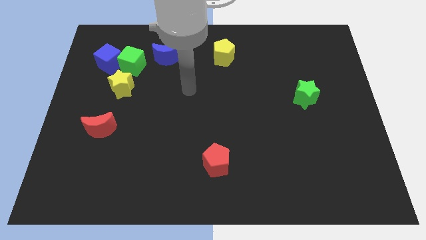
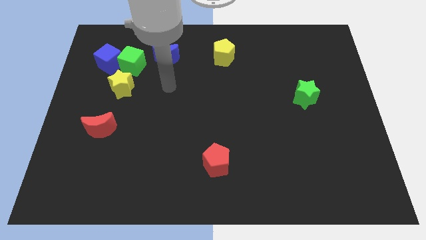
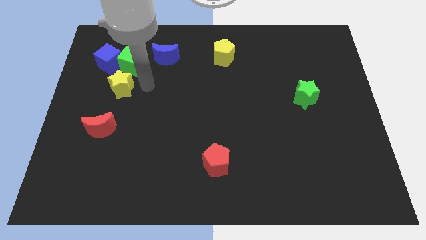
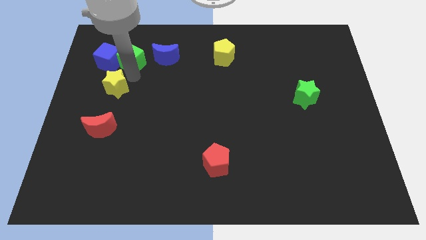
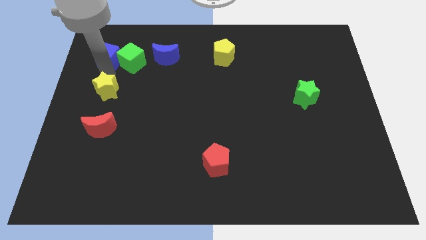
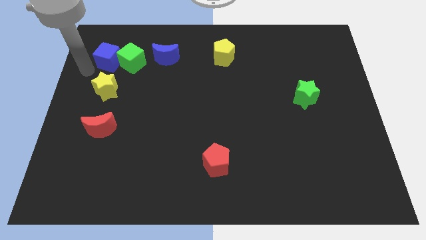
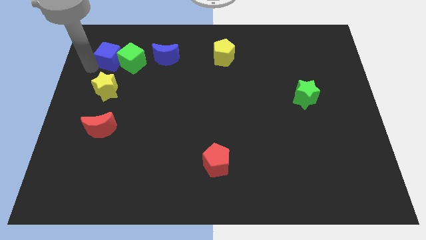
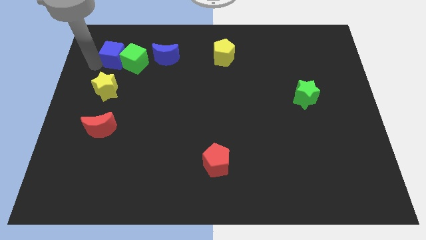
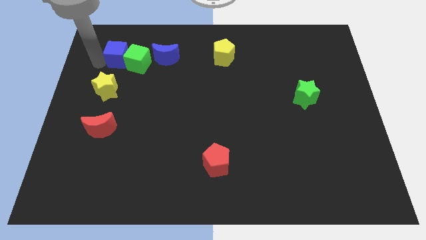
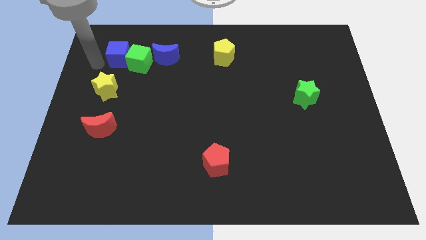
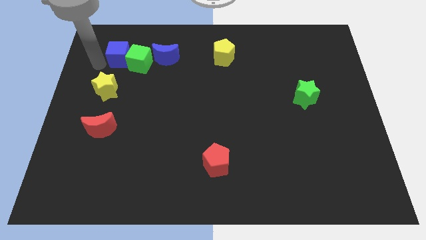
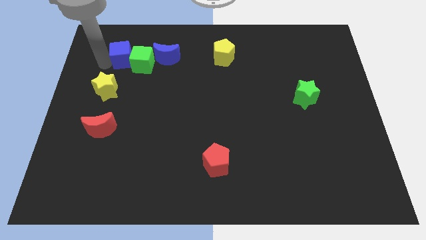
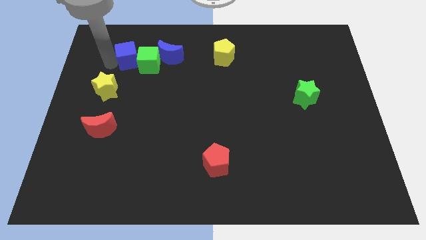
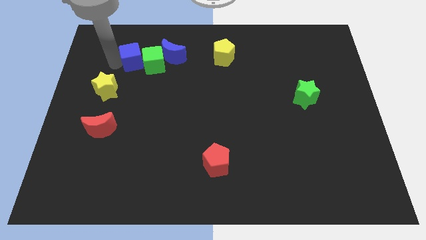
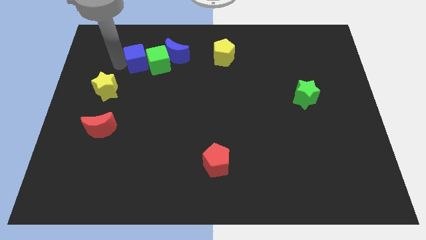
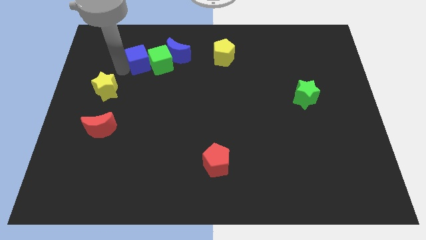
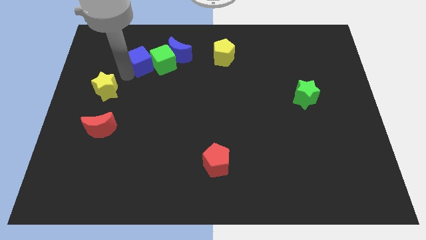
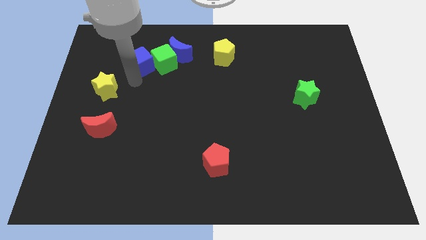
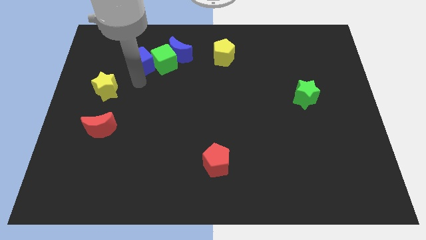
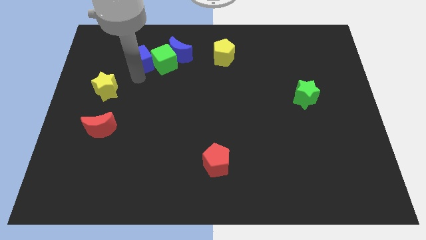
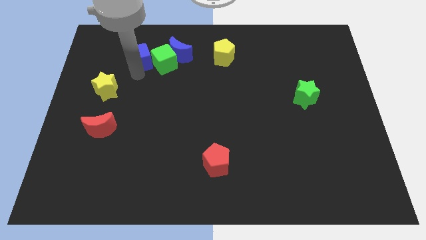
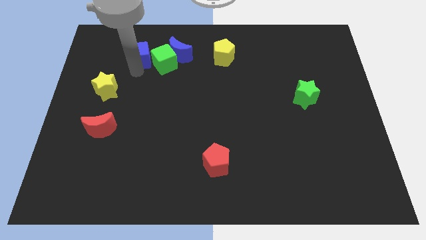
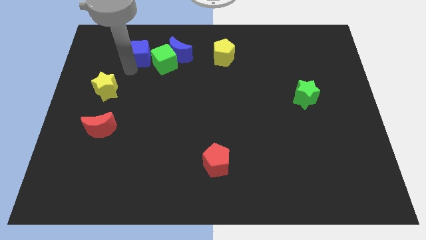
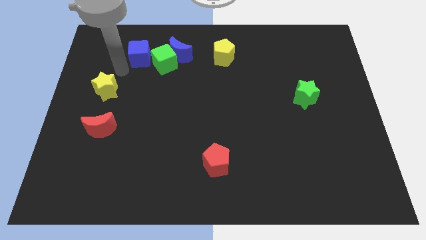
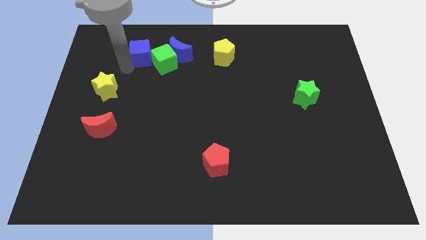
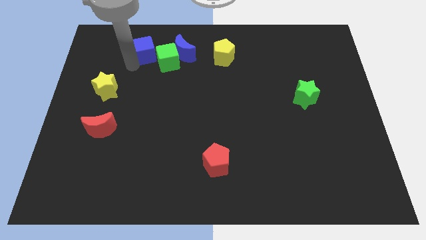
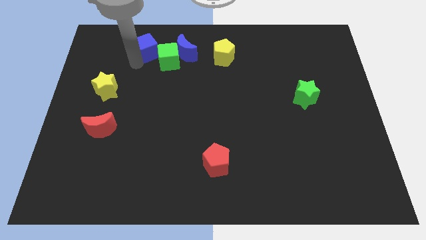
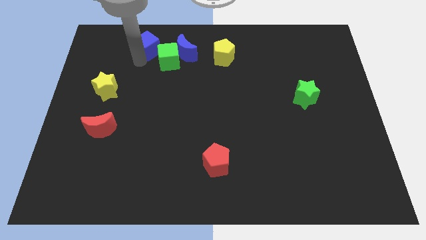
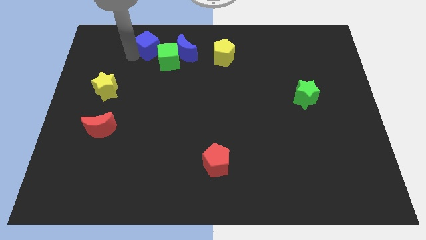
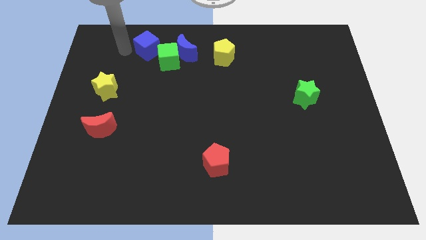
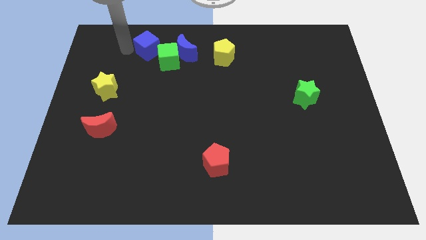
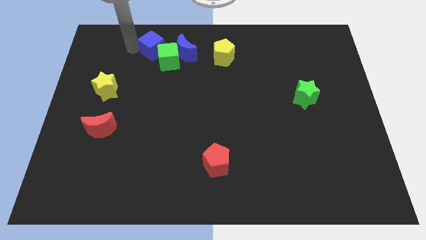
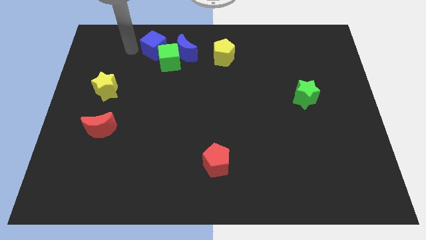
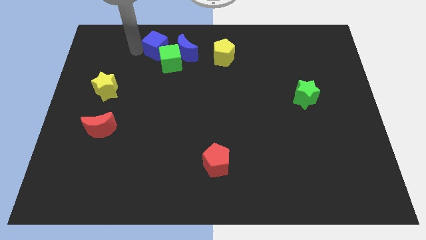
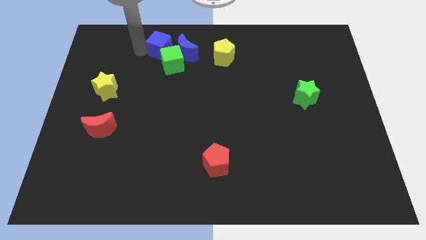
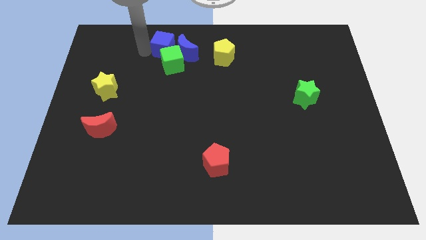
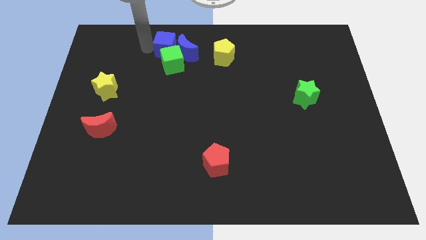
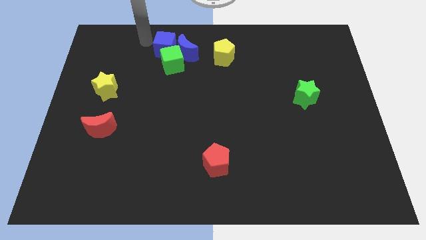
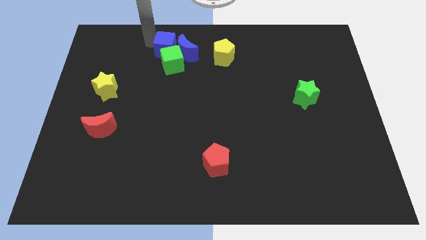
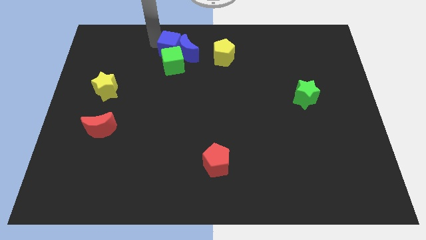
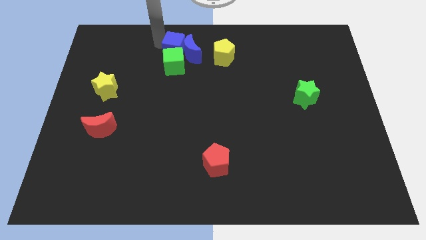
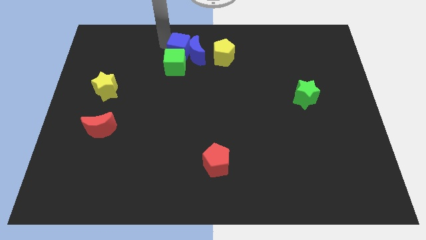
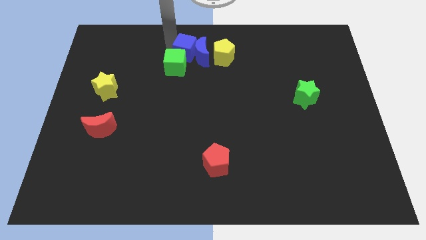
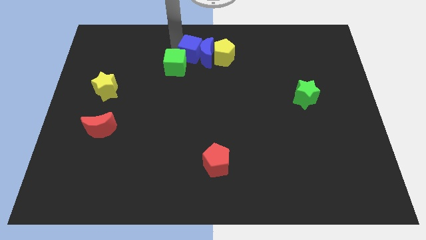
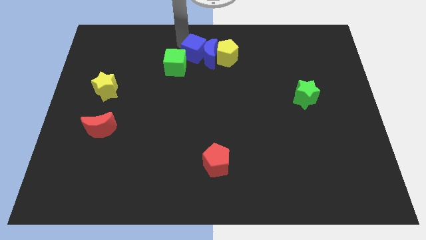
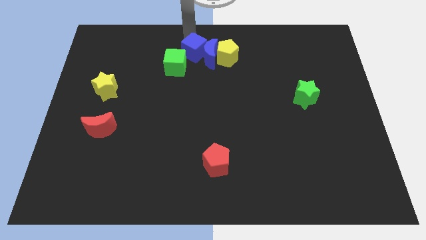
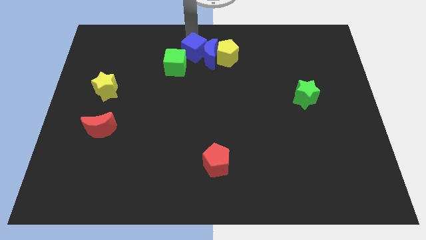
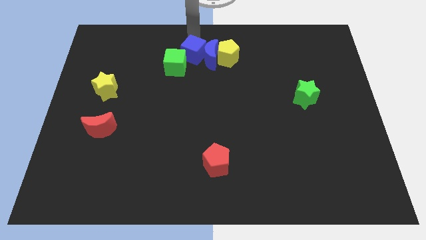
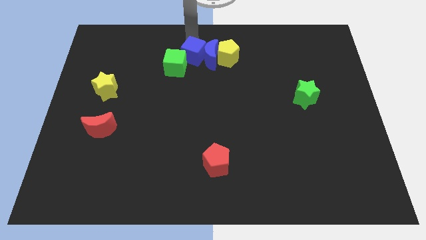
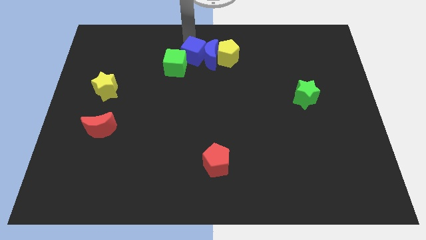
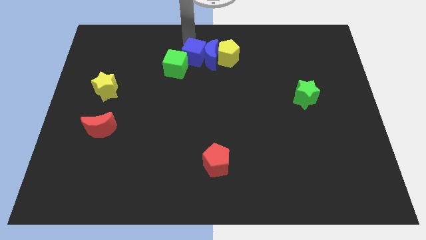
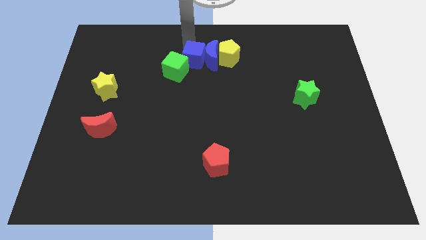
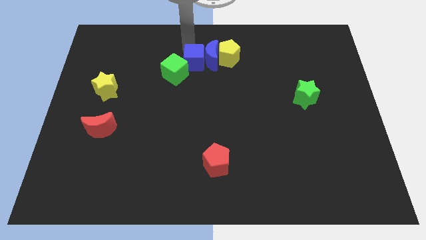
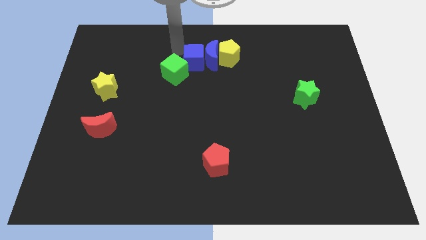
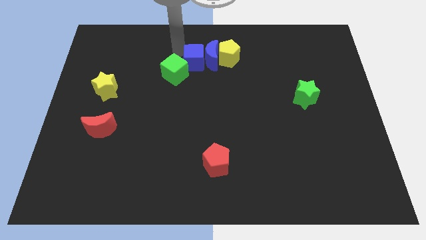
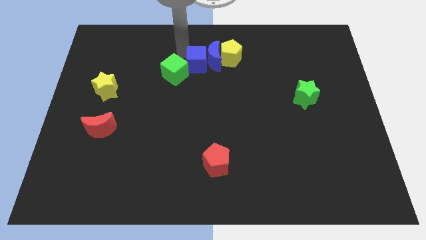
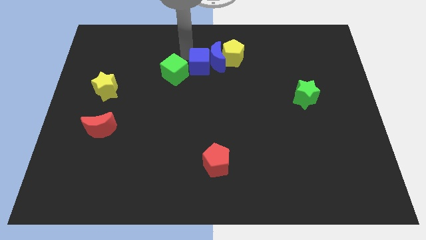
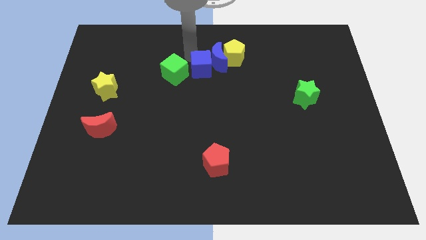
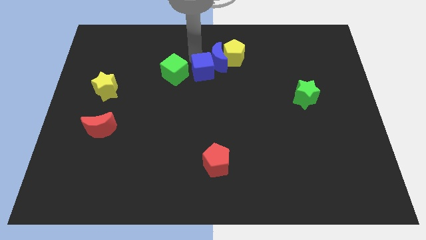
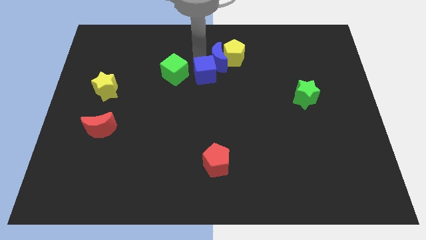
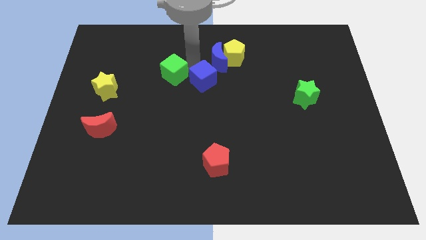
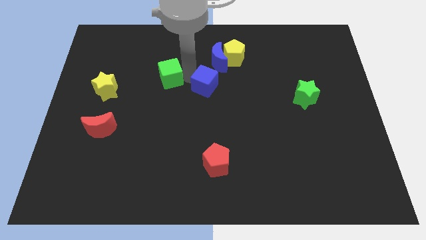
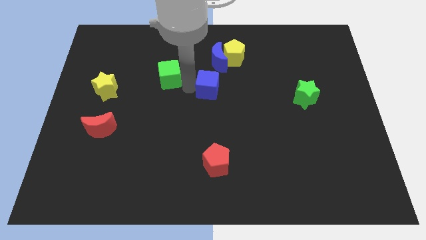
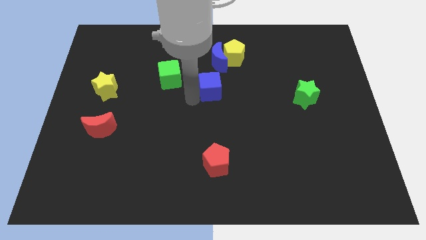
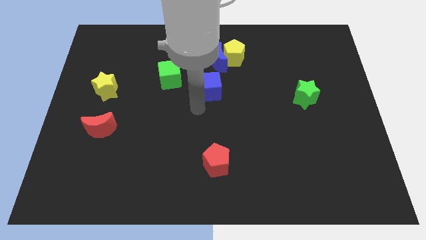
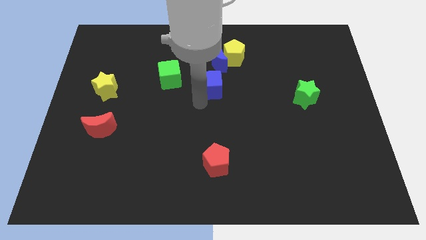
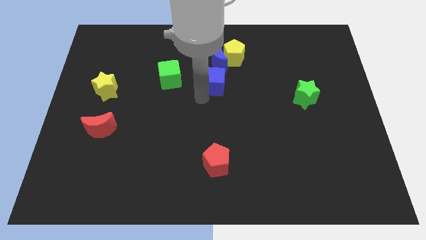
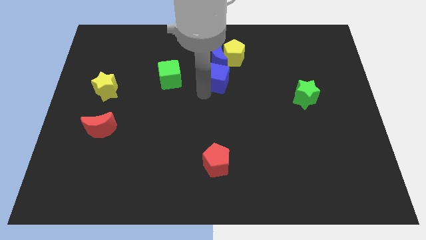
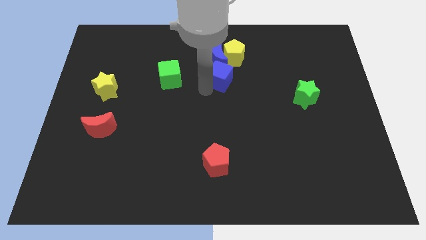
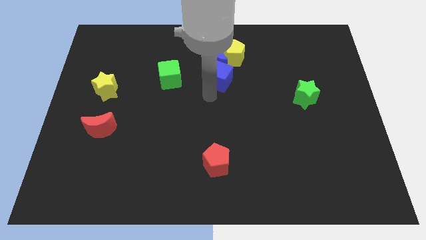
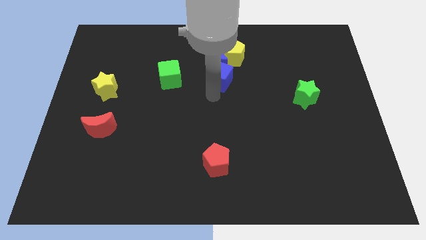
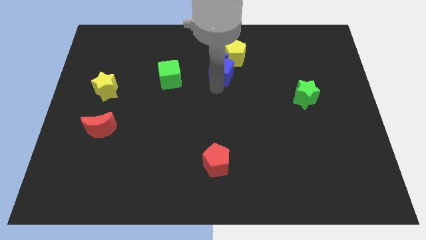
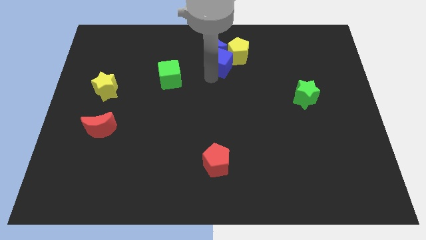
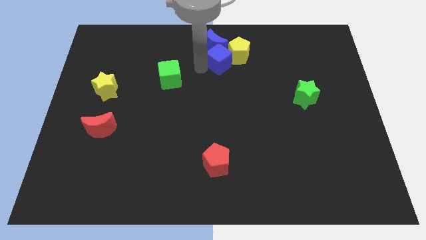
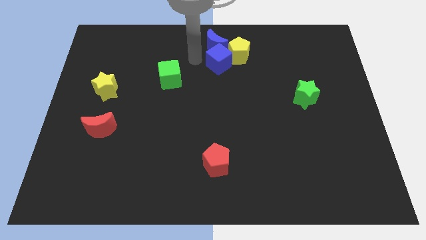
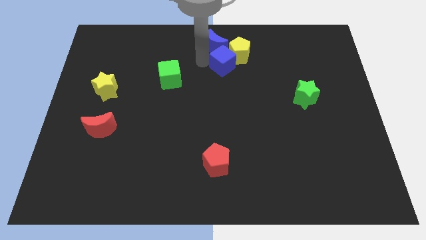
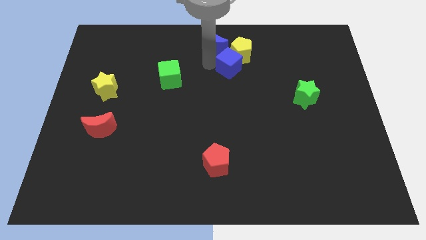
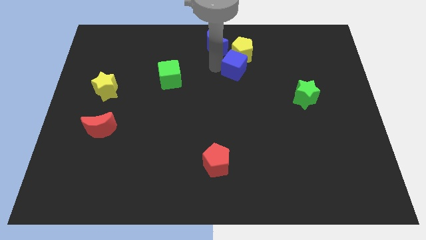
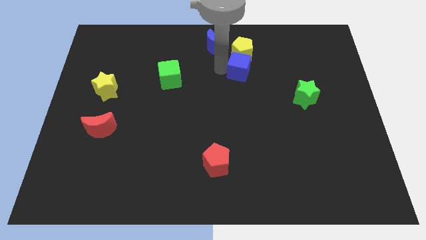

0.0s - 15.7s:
move the blue cube diagonally down and to the right of the yellow pentagon
